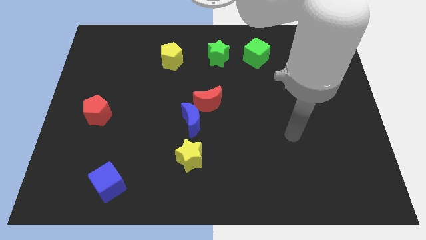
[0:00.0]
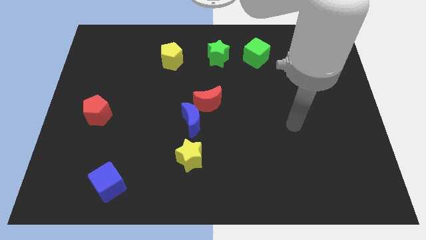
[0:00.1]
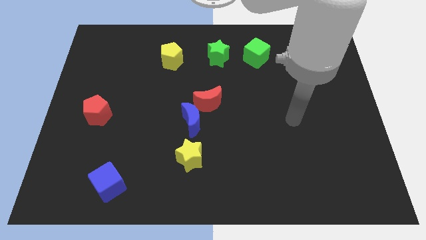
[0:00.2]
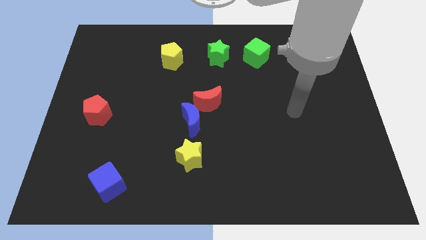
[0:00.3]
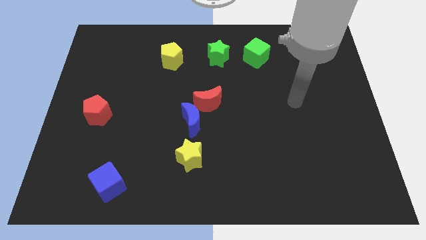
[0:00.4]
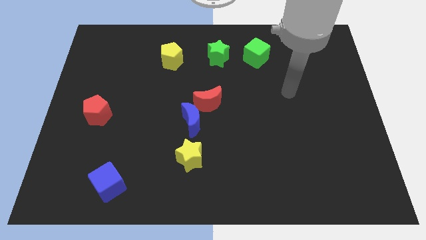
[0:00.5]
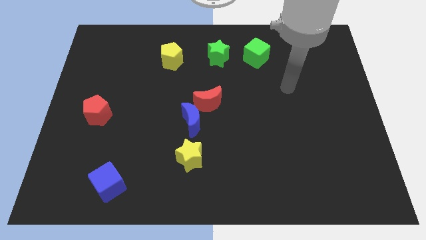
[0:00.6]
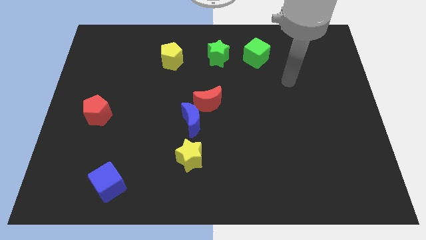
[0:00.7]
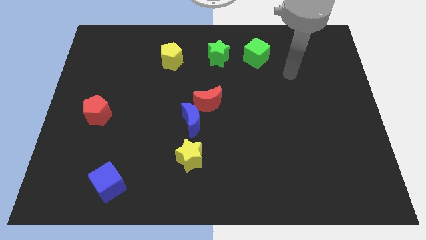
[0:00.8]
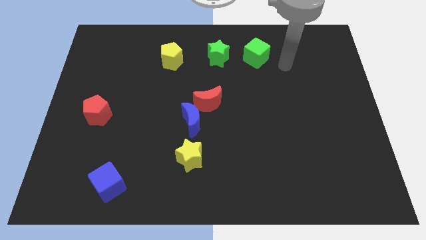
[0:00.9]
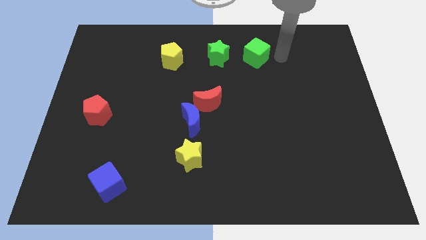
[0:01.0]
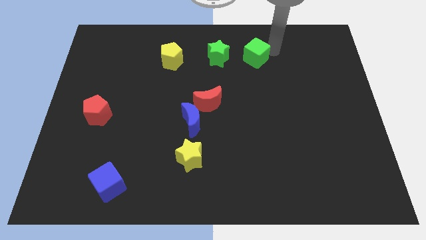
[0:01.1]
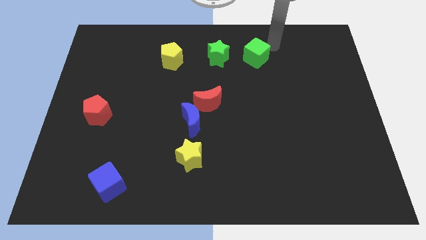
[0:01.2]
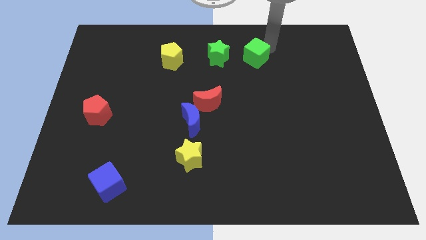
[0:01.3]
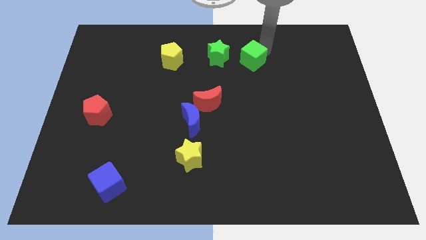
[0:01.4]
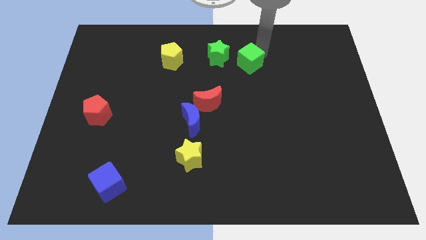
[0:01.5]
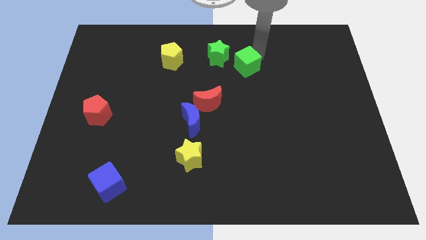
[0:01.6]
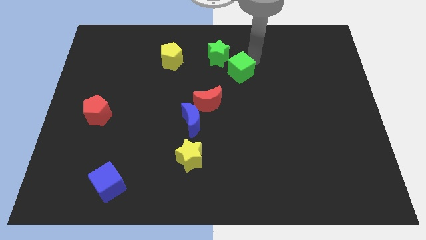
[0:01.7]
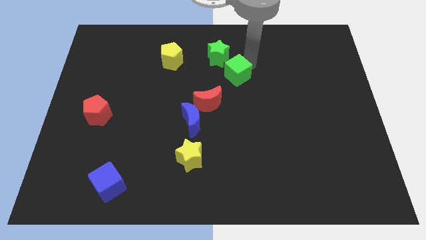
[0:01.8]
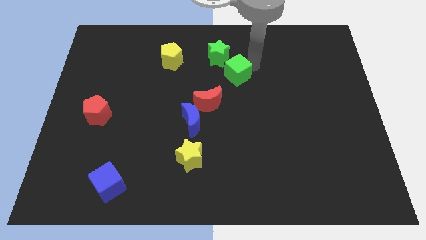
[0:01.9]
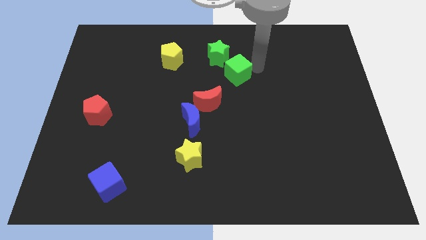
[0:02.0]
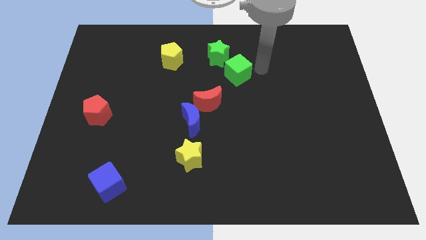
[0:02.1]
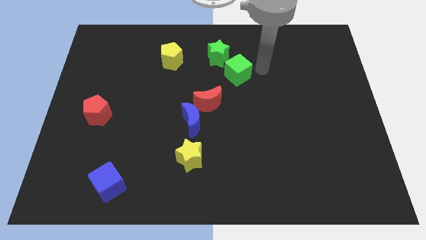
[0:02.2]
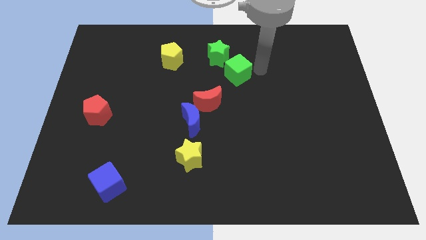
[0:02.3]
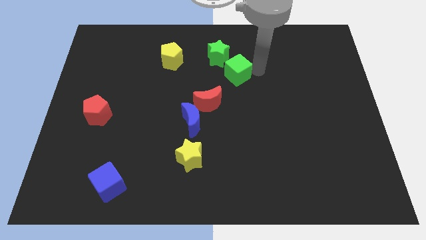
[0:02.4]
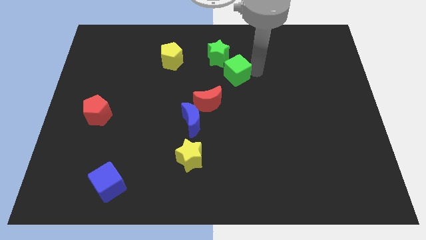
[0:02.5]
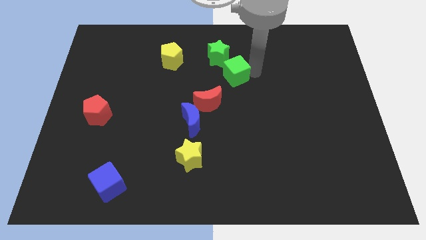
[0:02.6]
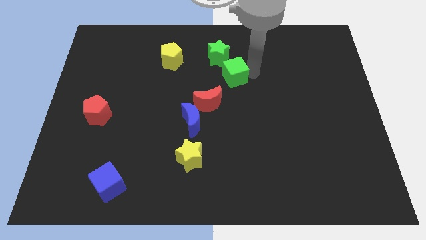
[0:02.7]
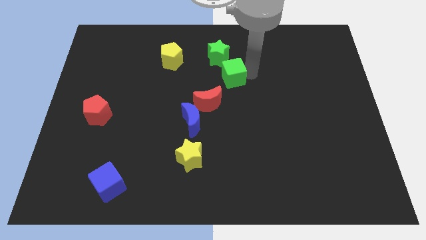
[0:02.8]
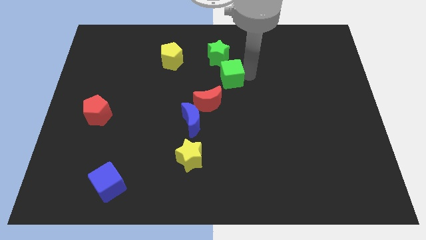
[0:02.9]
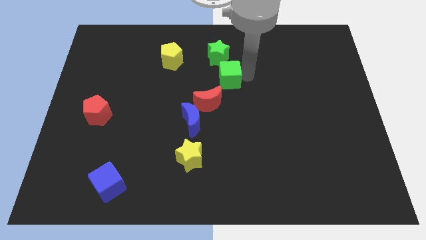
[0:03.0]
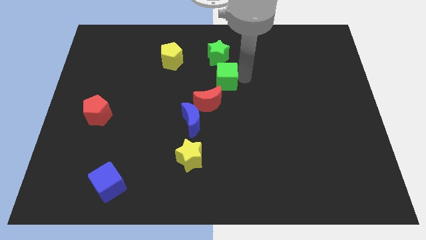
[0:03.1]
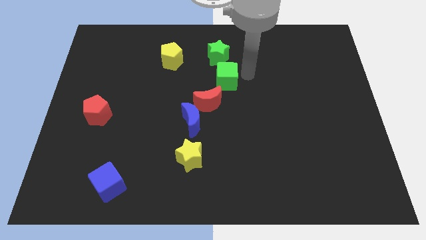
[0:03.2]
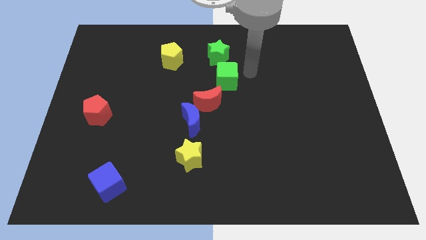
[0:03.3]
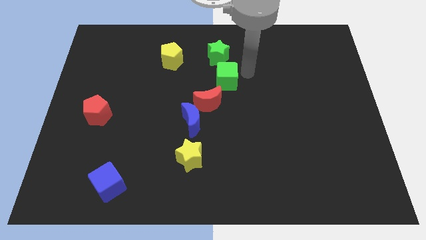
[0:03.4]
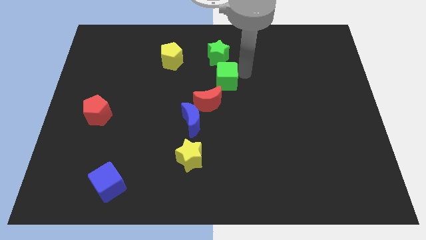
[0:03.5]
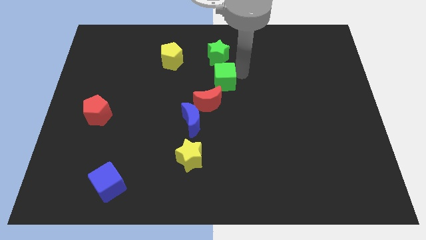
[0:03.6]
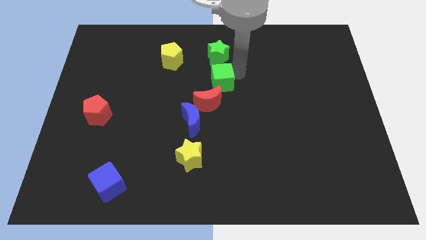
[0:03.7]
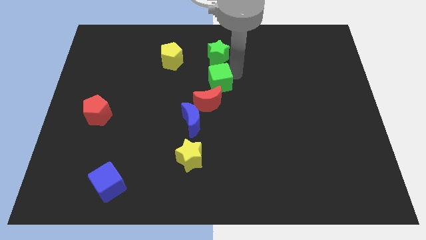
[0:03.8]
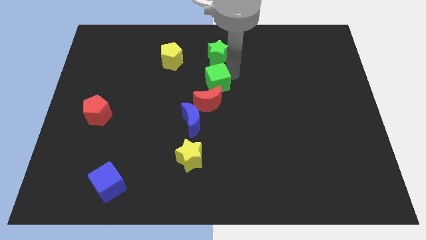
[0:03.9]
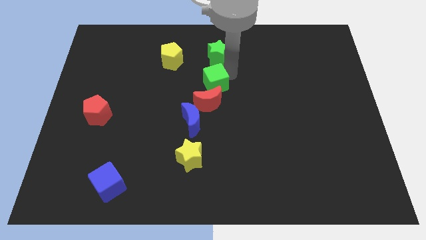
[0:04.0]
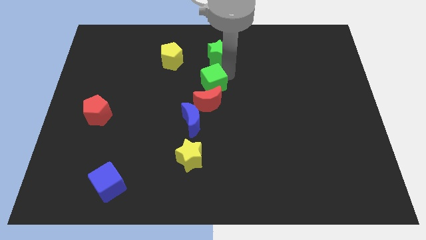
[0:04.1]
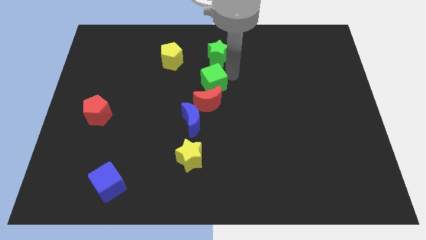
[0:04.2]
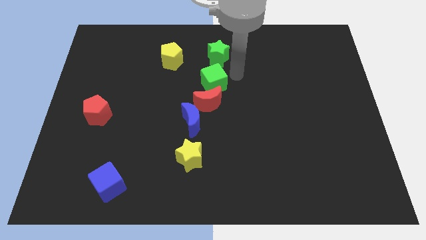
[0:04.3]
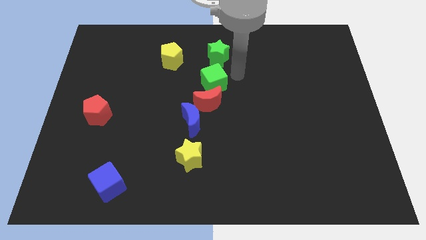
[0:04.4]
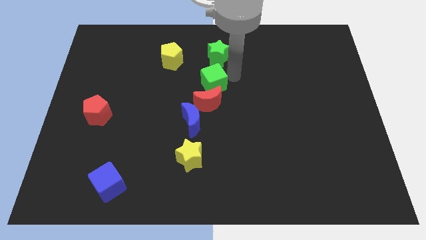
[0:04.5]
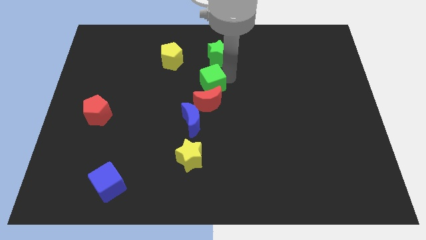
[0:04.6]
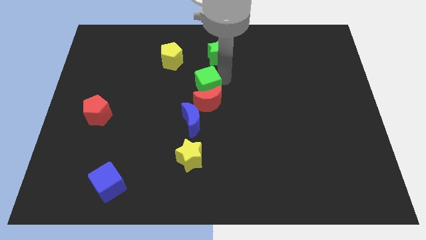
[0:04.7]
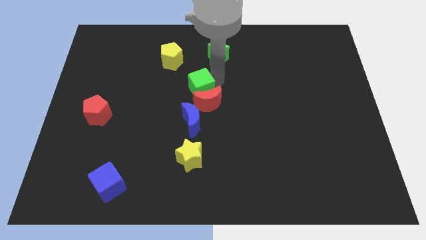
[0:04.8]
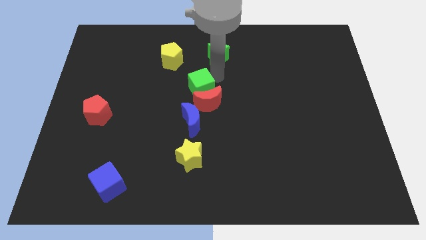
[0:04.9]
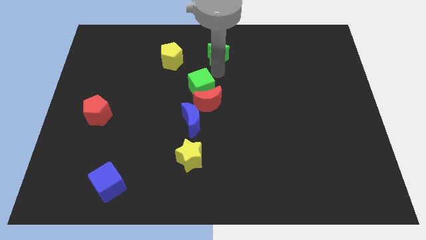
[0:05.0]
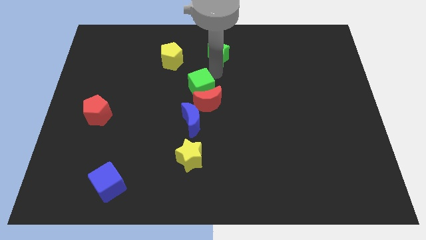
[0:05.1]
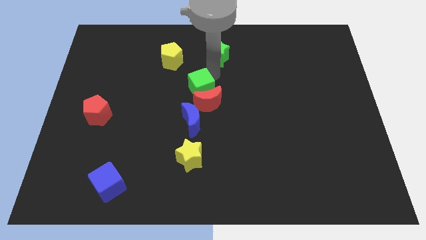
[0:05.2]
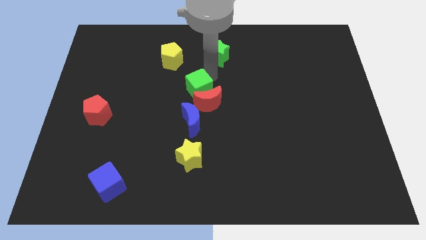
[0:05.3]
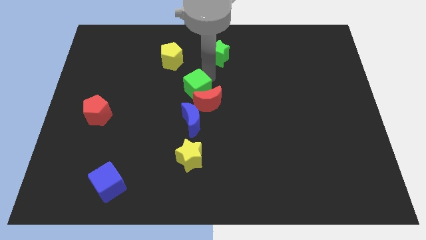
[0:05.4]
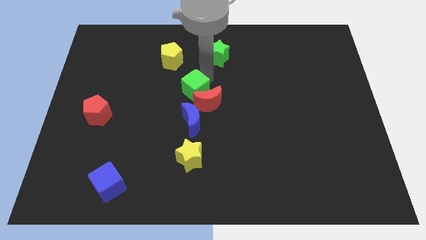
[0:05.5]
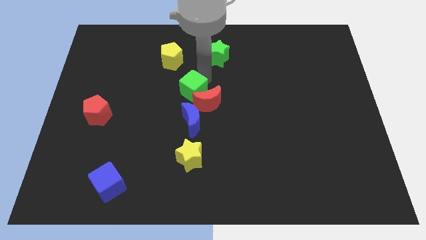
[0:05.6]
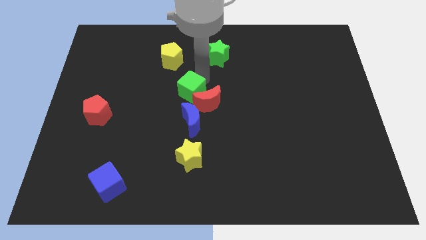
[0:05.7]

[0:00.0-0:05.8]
move the green cube downwards and then to the left

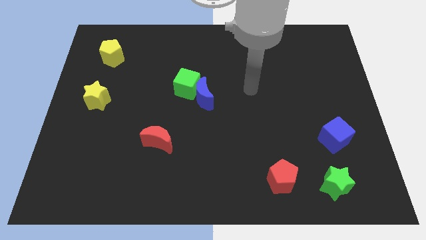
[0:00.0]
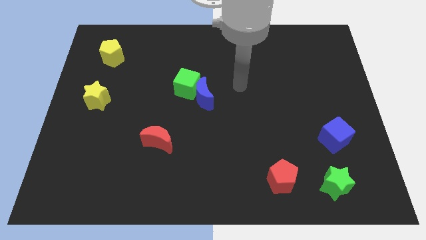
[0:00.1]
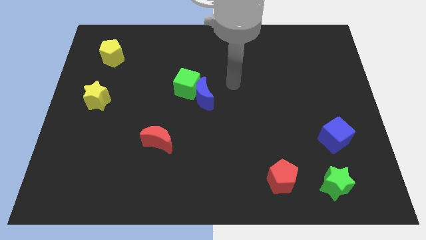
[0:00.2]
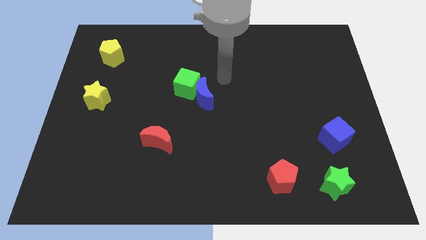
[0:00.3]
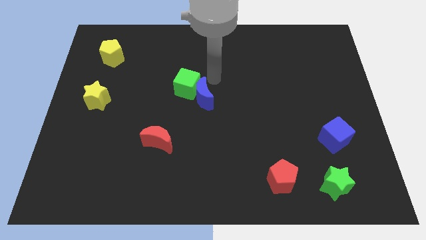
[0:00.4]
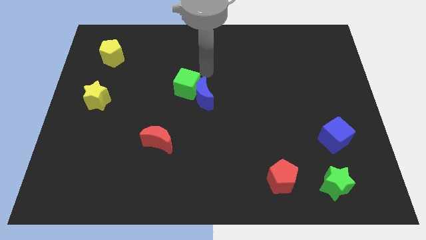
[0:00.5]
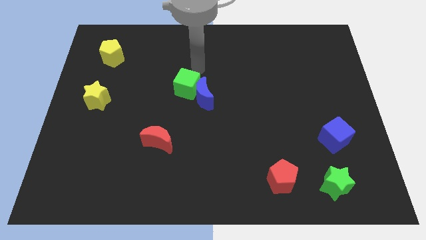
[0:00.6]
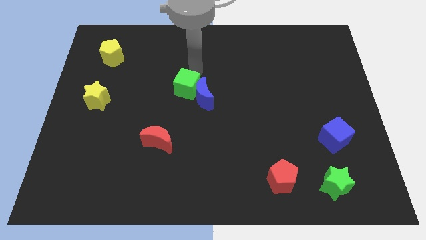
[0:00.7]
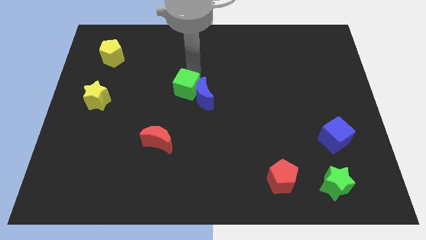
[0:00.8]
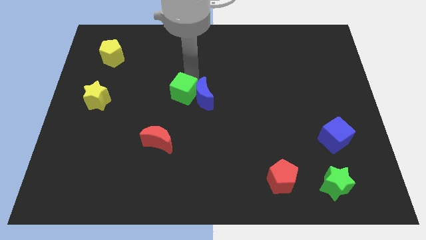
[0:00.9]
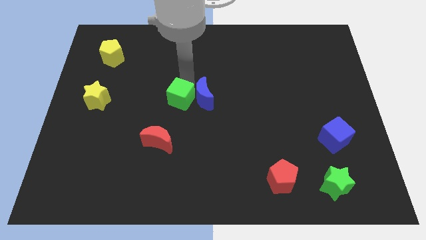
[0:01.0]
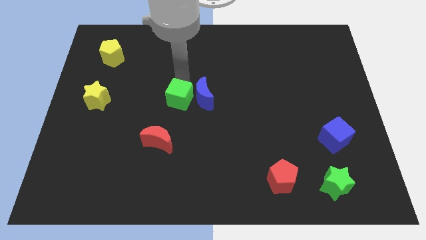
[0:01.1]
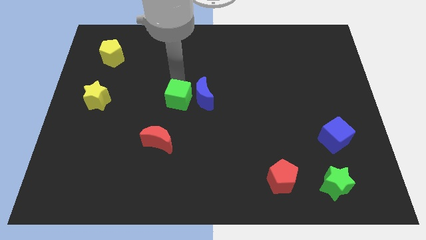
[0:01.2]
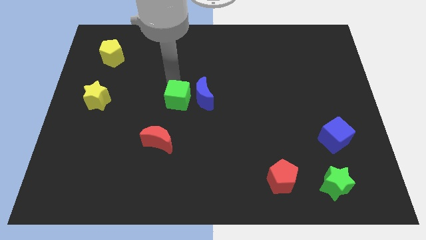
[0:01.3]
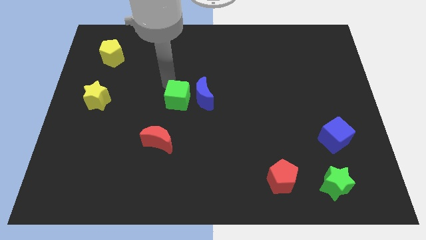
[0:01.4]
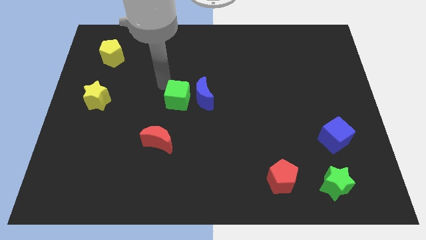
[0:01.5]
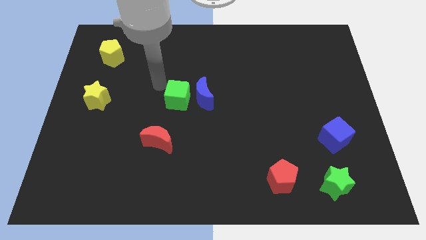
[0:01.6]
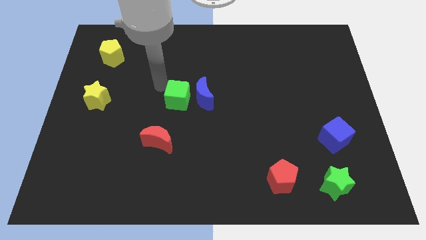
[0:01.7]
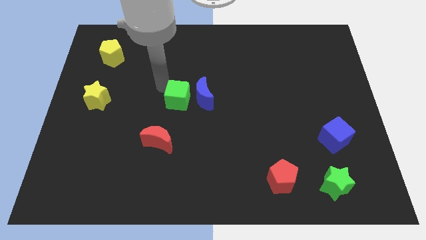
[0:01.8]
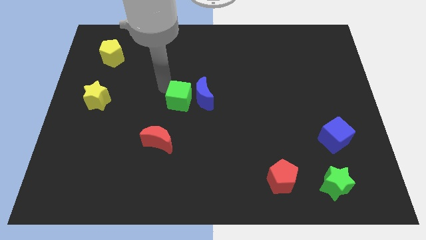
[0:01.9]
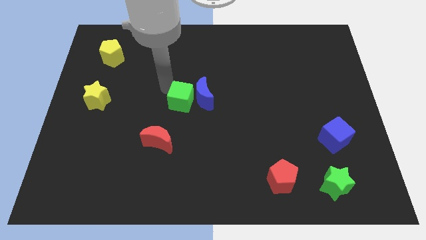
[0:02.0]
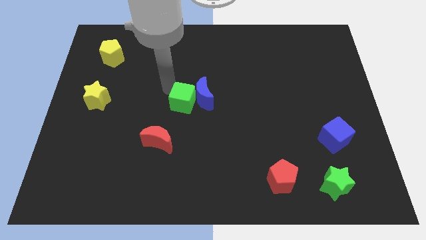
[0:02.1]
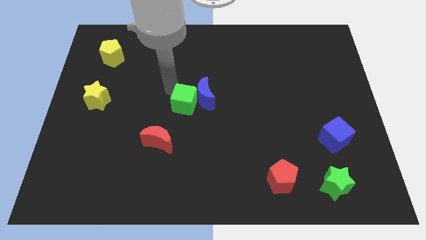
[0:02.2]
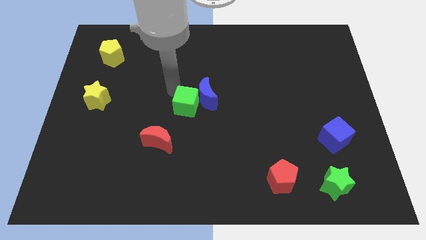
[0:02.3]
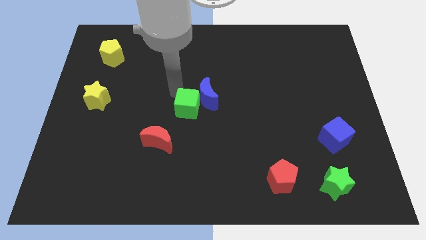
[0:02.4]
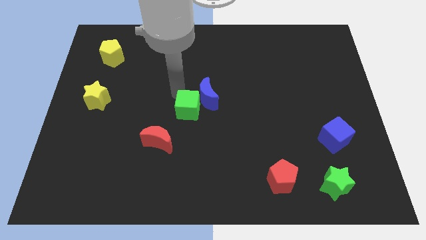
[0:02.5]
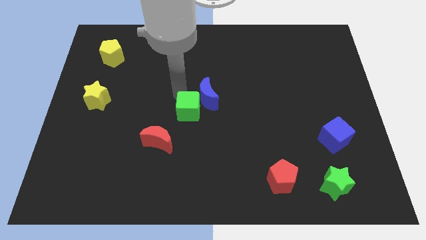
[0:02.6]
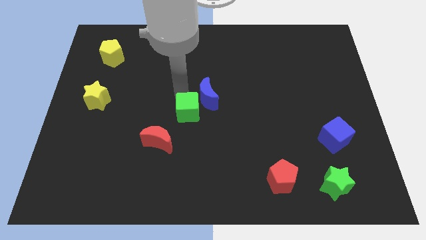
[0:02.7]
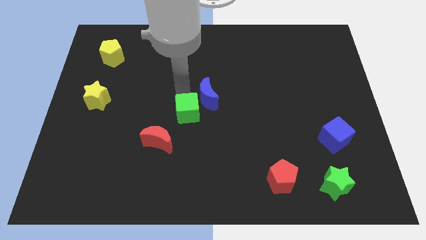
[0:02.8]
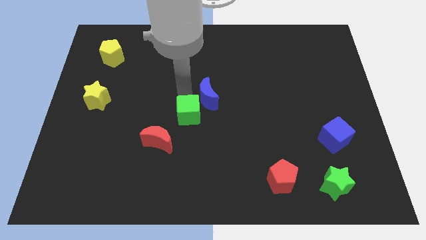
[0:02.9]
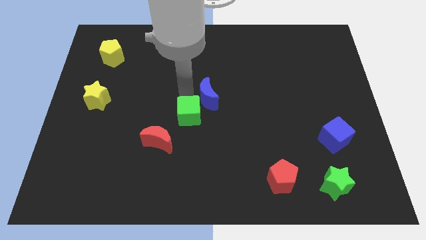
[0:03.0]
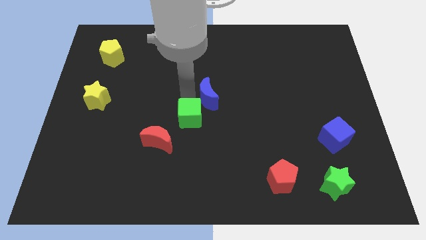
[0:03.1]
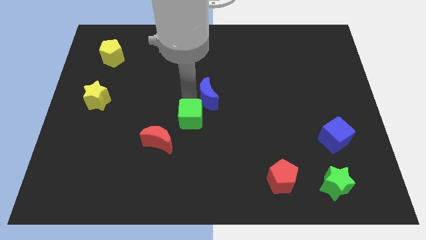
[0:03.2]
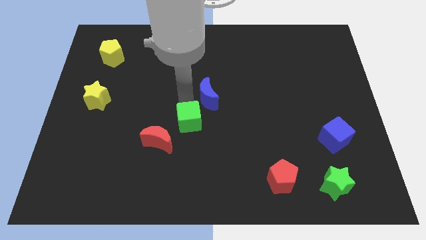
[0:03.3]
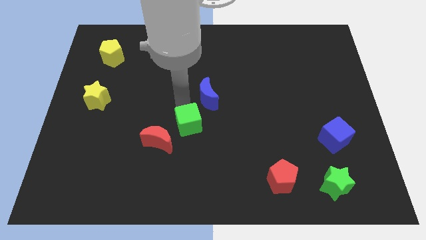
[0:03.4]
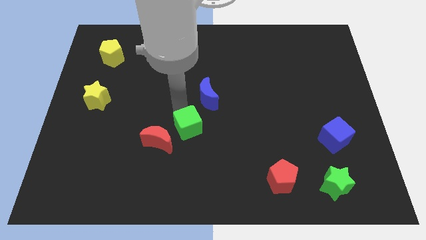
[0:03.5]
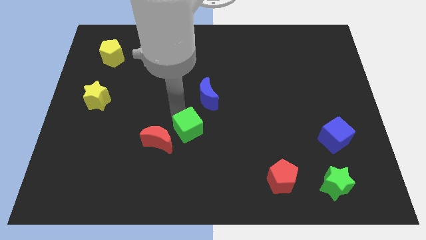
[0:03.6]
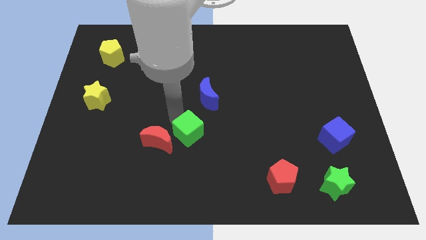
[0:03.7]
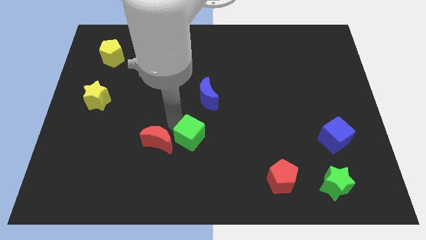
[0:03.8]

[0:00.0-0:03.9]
slide the green cube downwards and to the right diagonally a little
